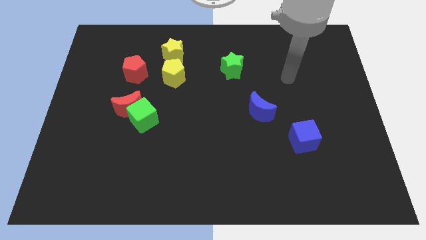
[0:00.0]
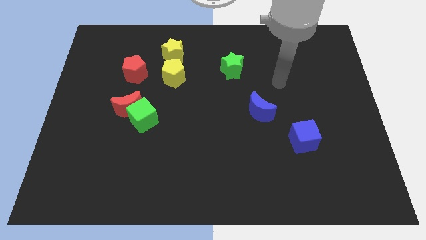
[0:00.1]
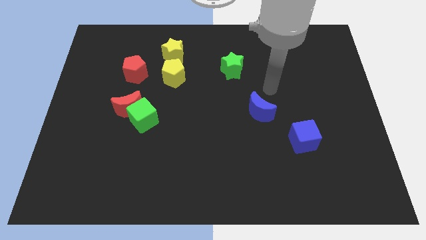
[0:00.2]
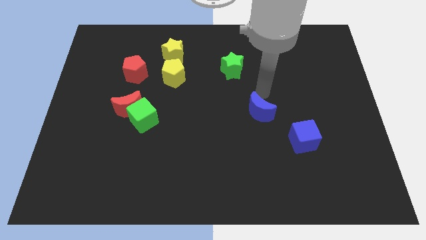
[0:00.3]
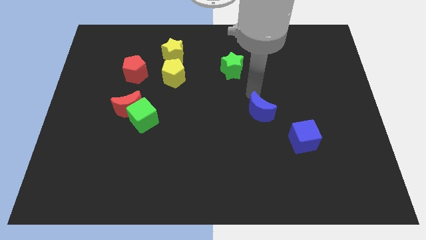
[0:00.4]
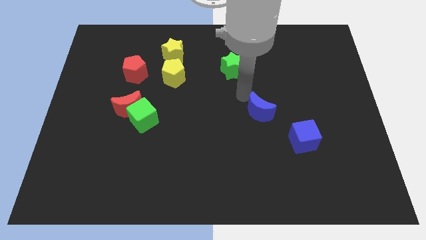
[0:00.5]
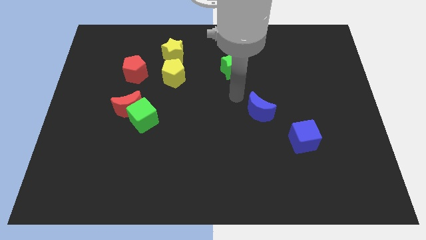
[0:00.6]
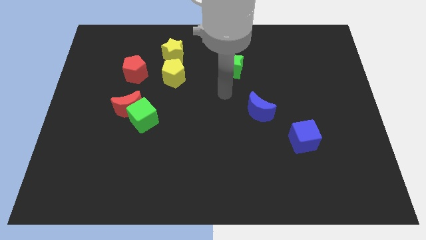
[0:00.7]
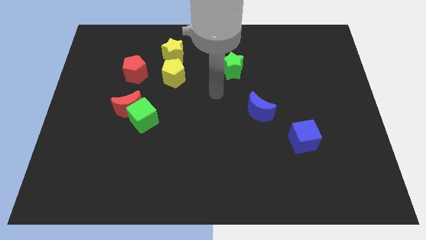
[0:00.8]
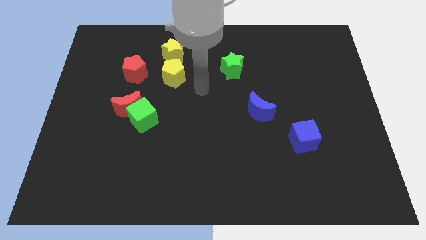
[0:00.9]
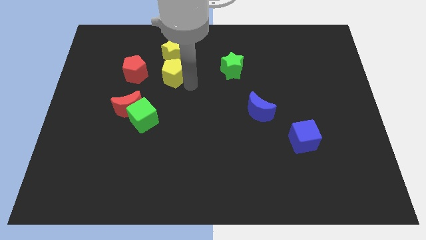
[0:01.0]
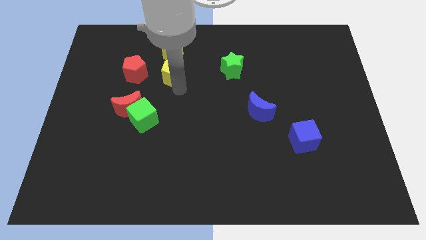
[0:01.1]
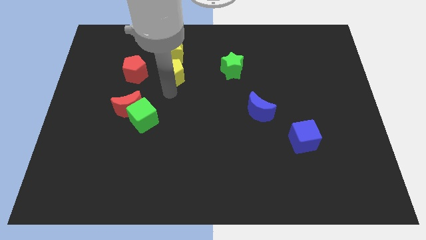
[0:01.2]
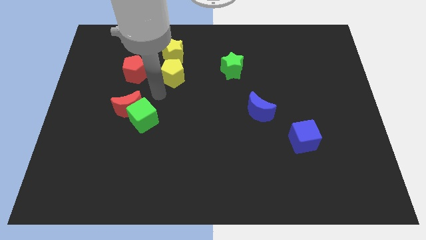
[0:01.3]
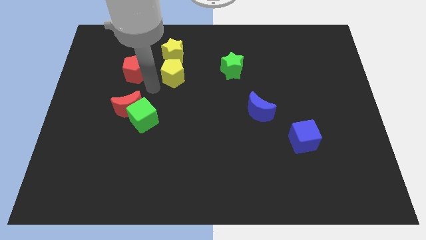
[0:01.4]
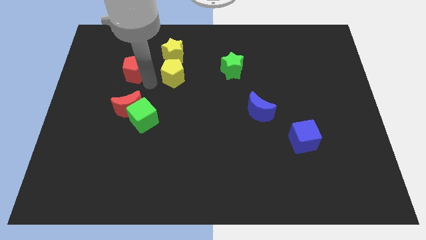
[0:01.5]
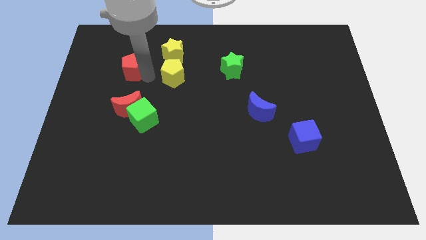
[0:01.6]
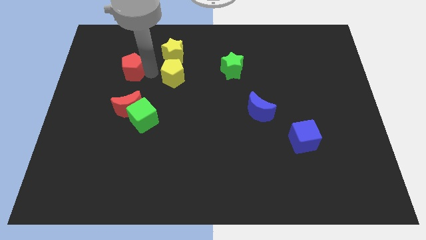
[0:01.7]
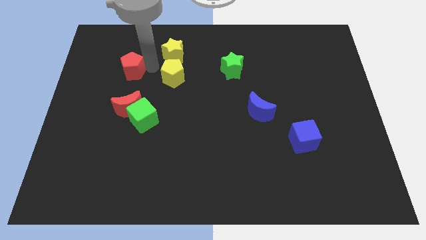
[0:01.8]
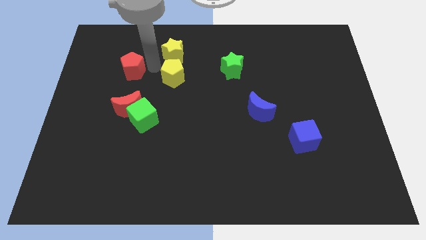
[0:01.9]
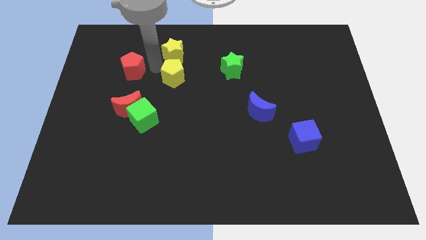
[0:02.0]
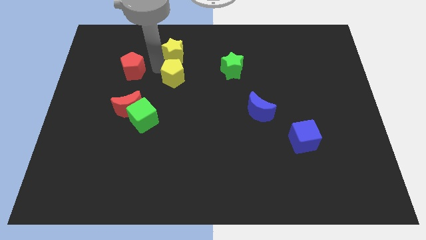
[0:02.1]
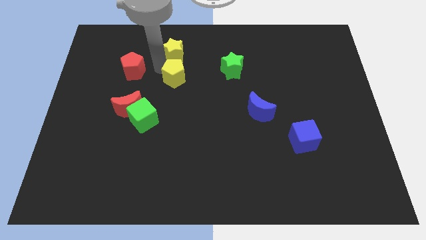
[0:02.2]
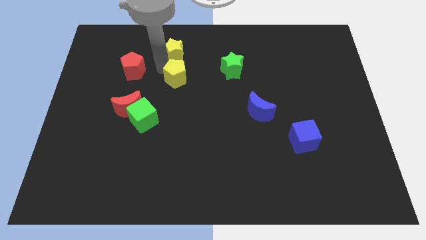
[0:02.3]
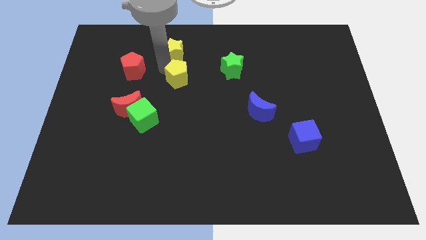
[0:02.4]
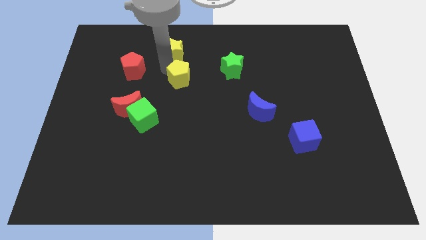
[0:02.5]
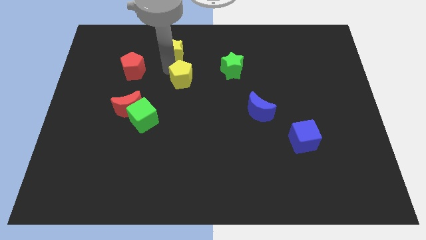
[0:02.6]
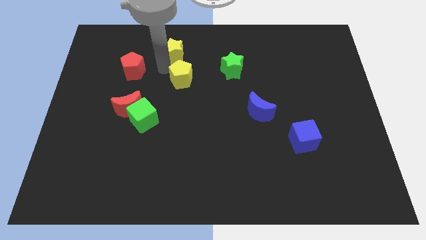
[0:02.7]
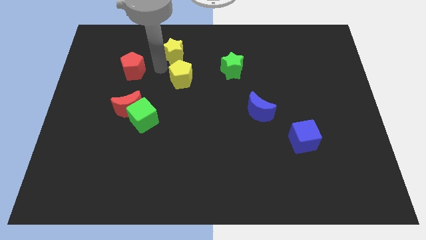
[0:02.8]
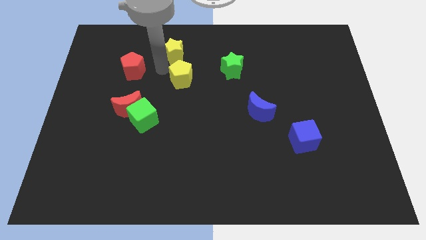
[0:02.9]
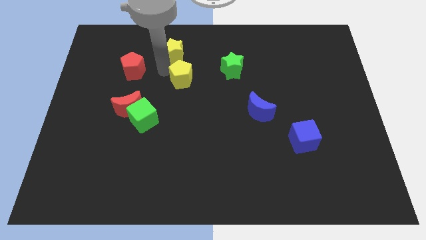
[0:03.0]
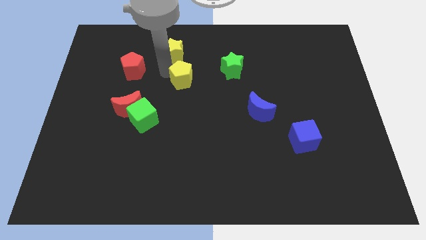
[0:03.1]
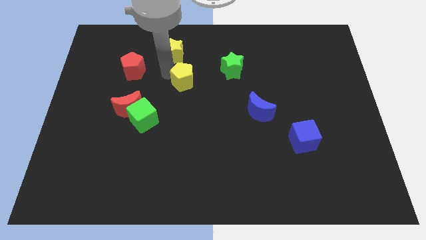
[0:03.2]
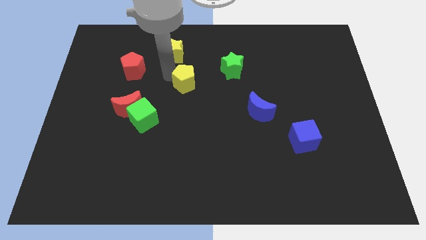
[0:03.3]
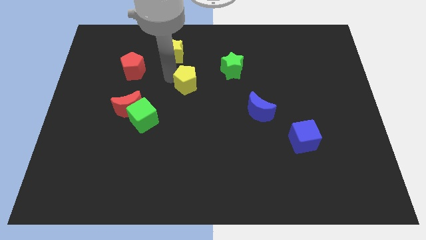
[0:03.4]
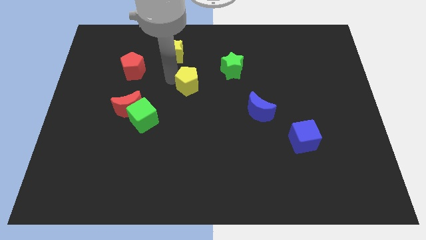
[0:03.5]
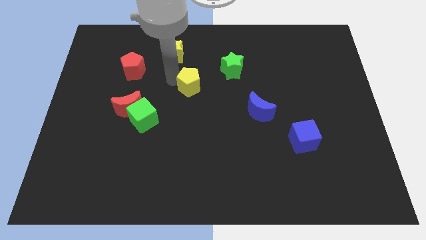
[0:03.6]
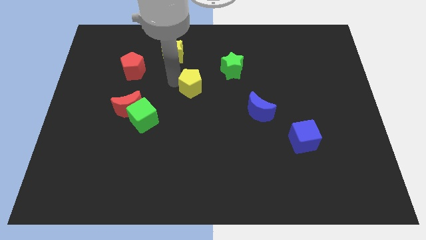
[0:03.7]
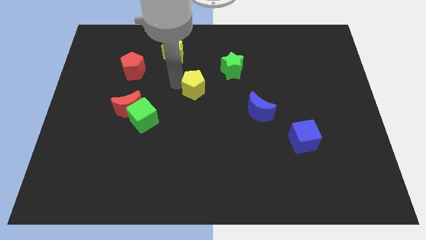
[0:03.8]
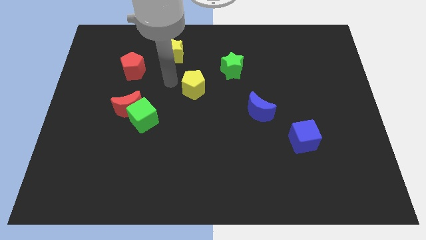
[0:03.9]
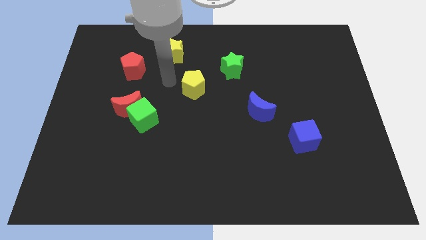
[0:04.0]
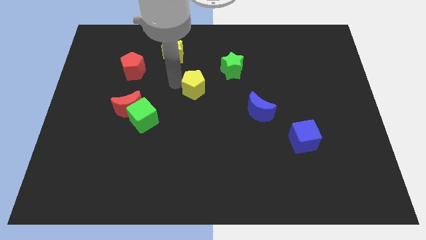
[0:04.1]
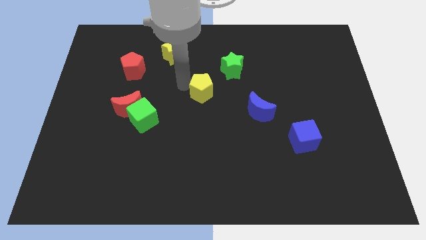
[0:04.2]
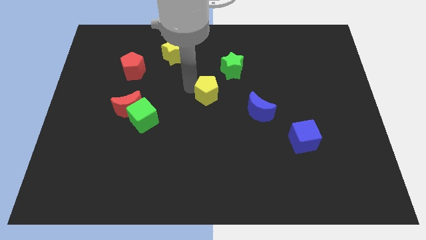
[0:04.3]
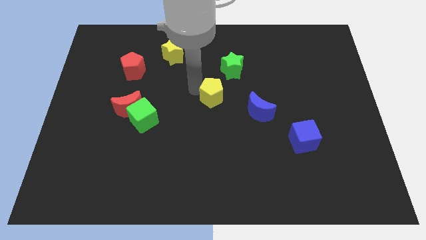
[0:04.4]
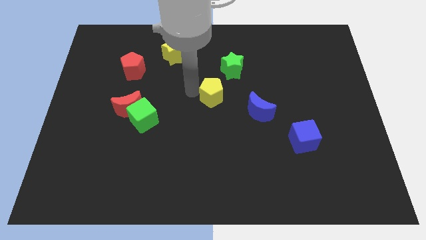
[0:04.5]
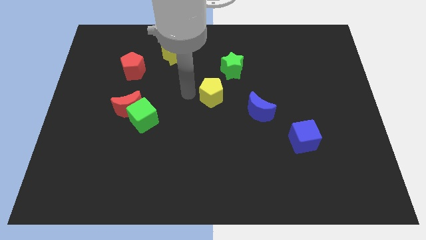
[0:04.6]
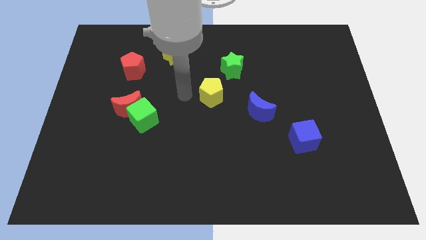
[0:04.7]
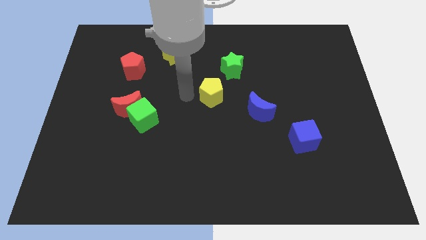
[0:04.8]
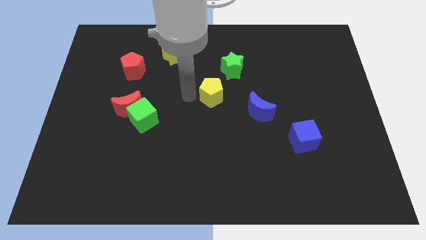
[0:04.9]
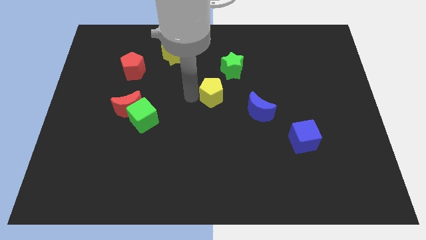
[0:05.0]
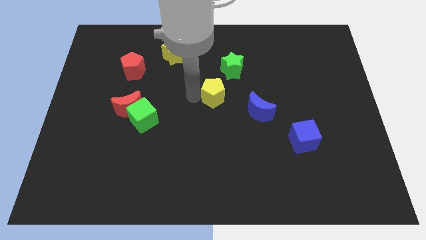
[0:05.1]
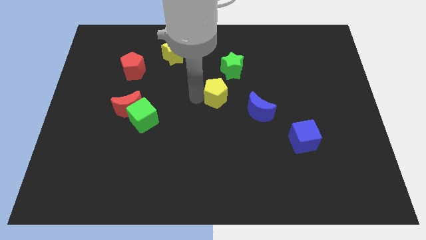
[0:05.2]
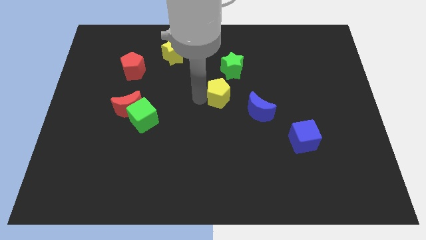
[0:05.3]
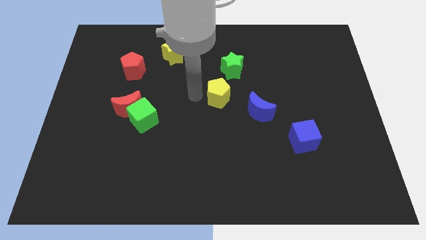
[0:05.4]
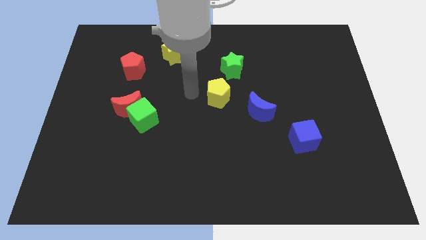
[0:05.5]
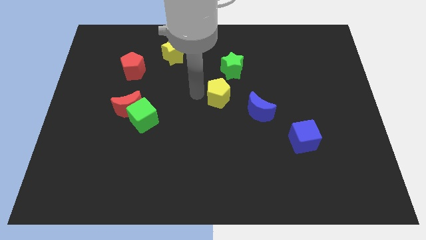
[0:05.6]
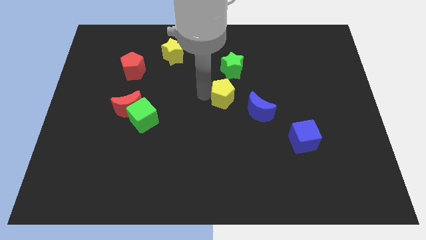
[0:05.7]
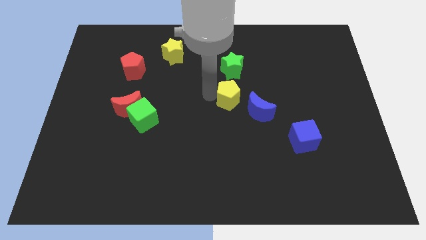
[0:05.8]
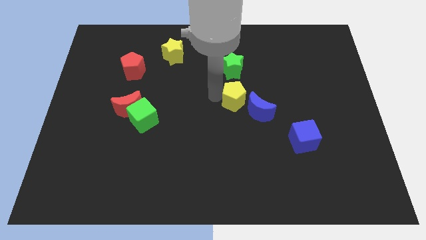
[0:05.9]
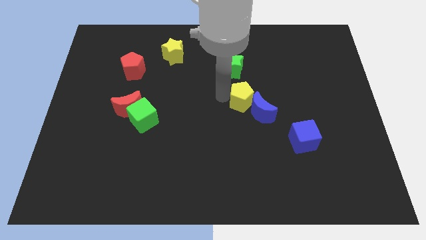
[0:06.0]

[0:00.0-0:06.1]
put the yellow pentagon next to the blue moon
